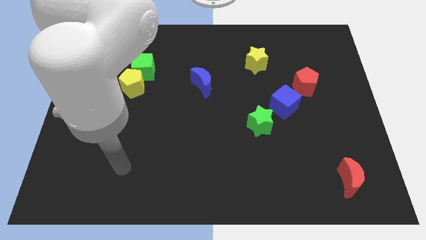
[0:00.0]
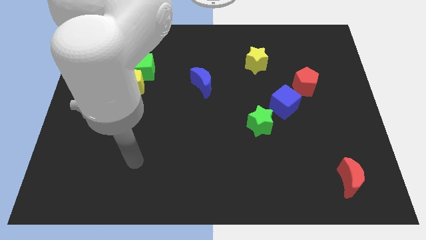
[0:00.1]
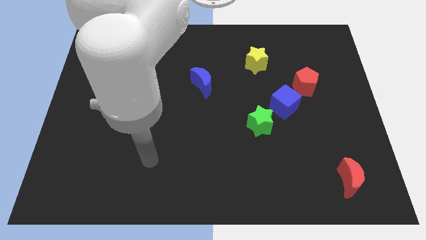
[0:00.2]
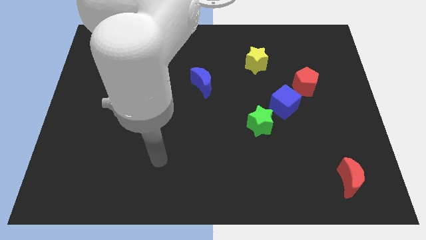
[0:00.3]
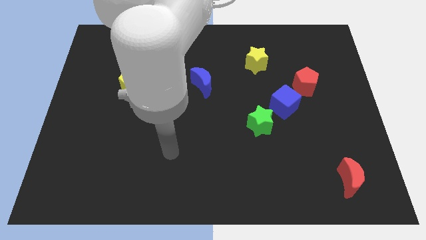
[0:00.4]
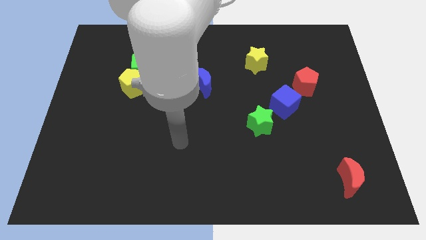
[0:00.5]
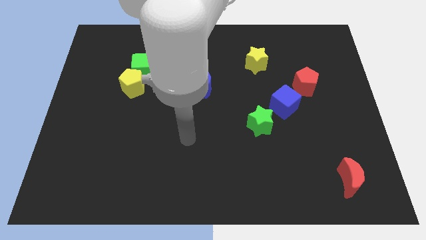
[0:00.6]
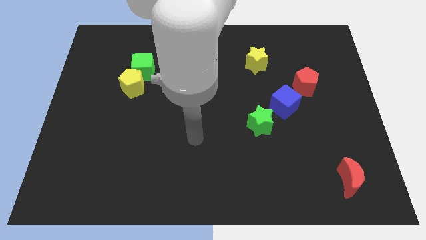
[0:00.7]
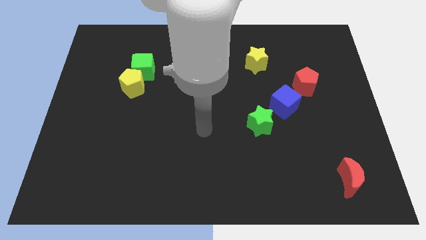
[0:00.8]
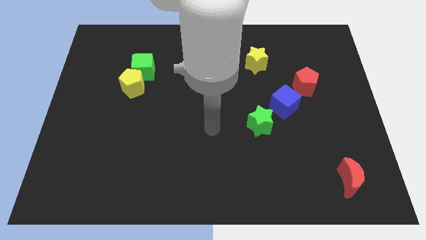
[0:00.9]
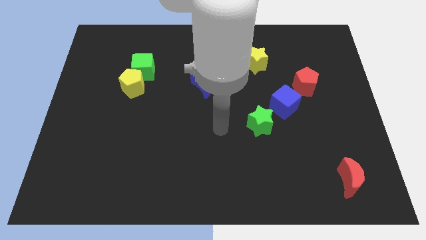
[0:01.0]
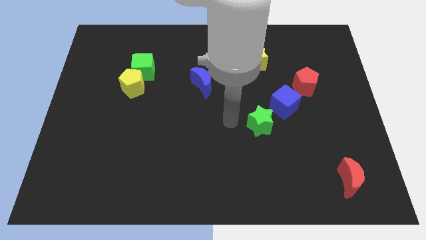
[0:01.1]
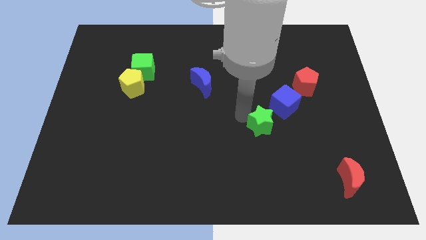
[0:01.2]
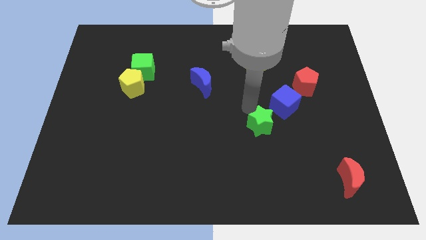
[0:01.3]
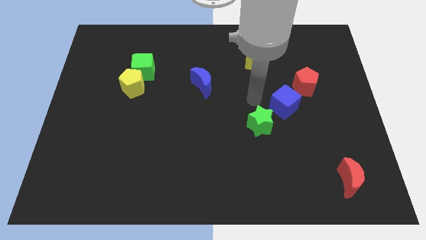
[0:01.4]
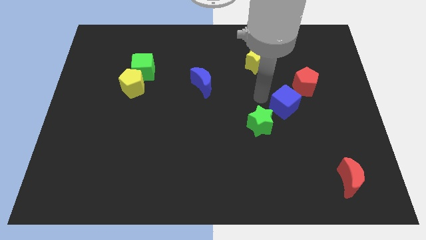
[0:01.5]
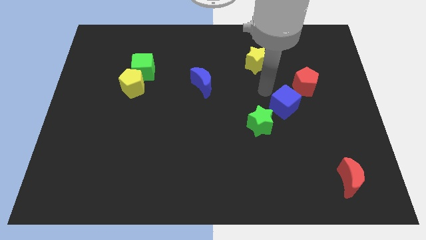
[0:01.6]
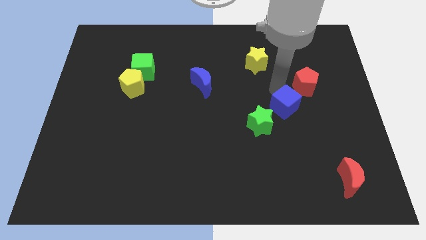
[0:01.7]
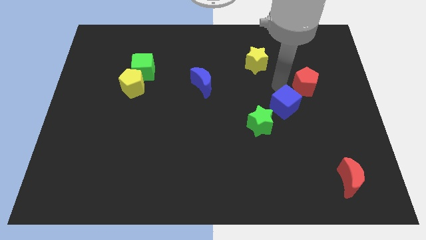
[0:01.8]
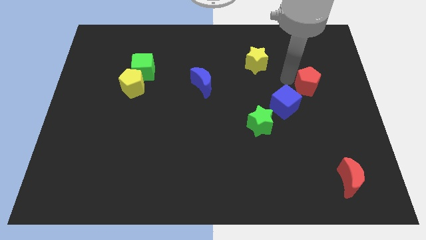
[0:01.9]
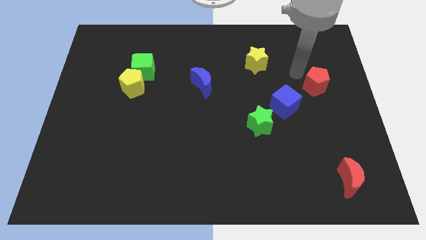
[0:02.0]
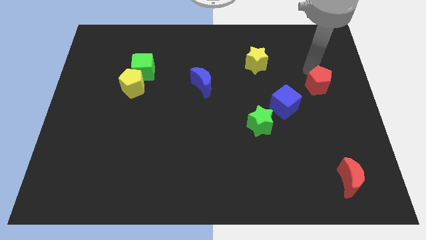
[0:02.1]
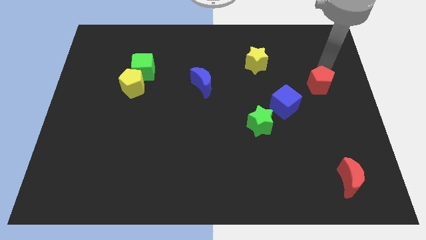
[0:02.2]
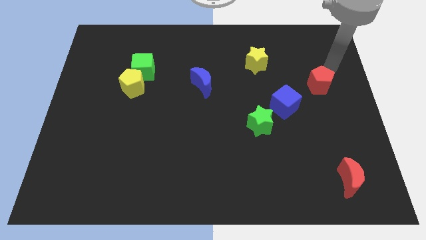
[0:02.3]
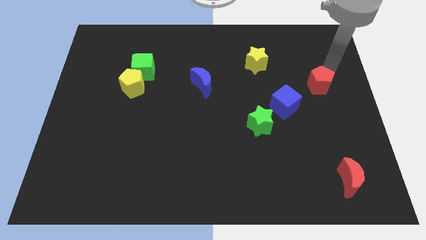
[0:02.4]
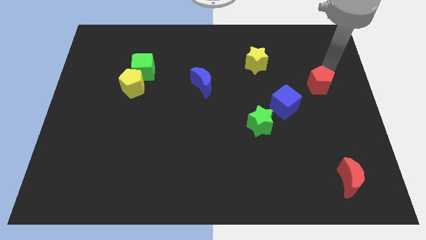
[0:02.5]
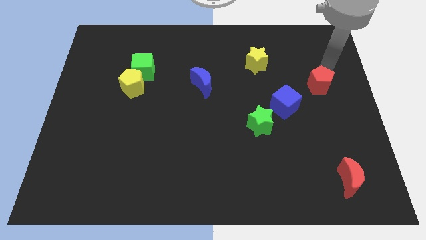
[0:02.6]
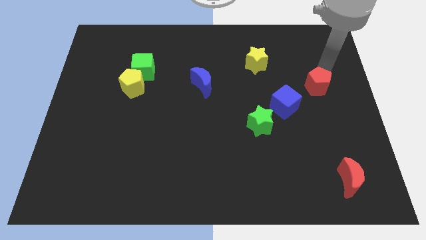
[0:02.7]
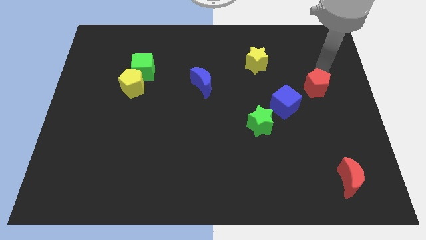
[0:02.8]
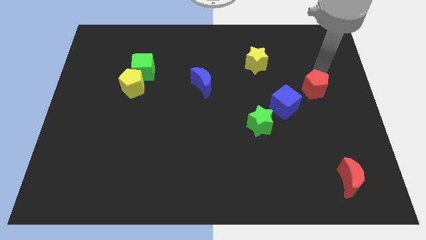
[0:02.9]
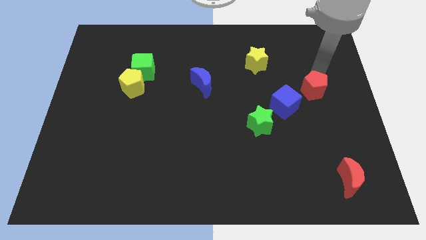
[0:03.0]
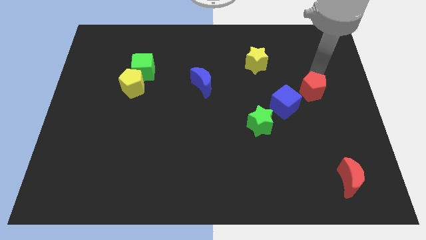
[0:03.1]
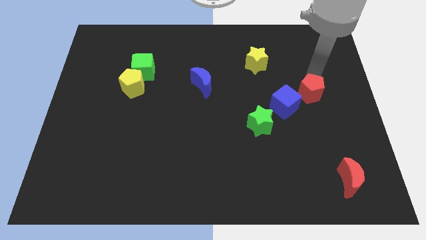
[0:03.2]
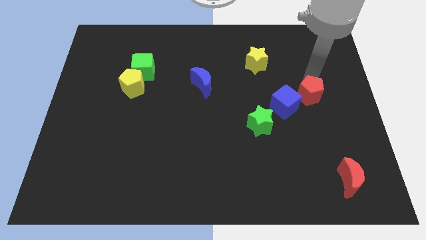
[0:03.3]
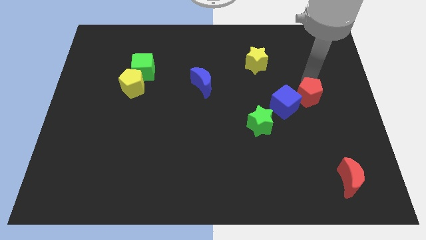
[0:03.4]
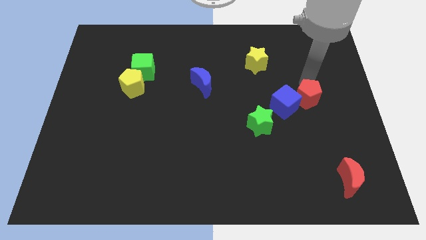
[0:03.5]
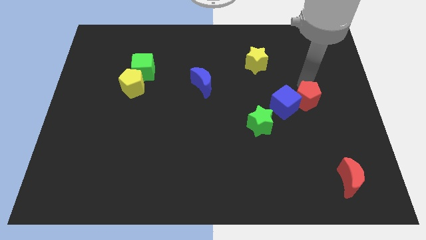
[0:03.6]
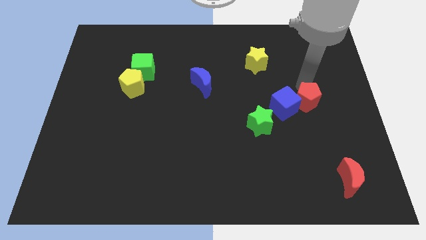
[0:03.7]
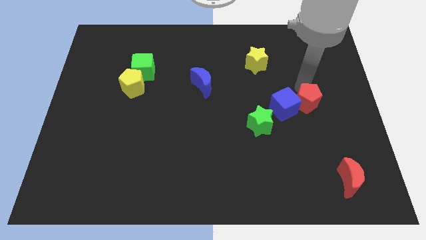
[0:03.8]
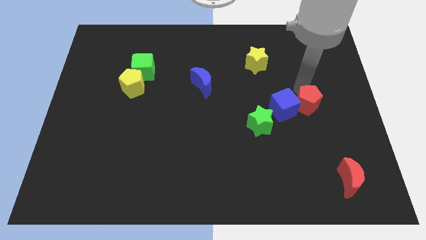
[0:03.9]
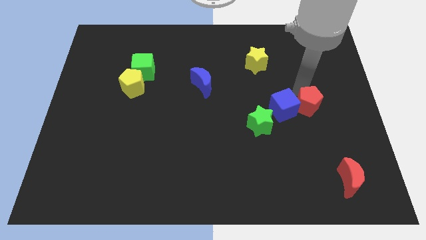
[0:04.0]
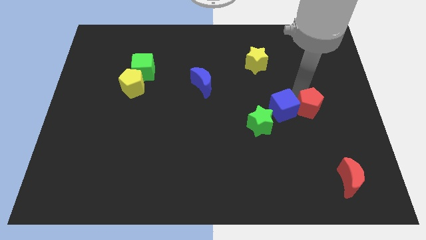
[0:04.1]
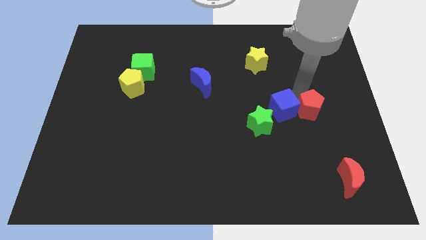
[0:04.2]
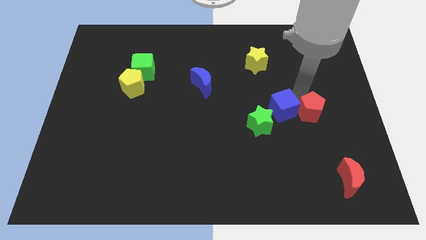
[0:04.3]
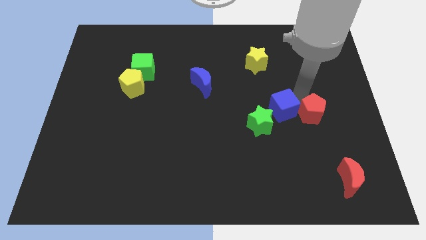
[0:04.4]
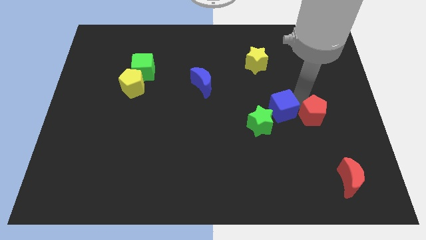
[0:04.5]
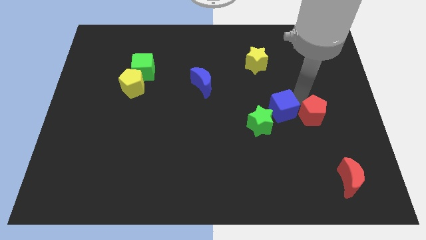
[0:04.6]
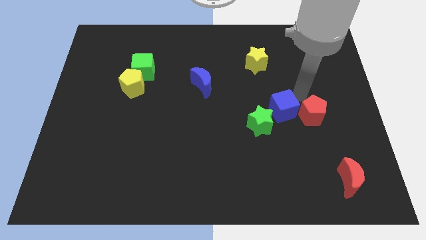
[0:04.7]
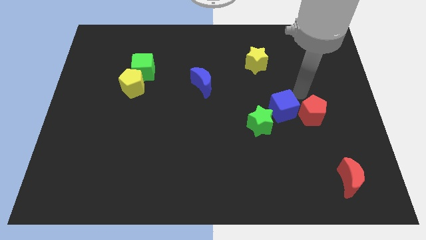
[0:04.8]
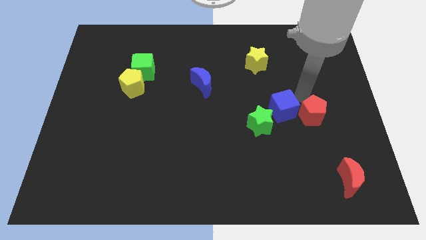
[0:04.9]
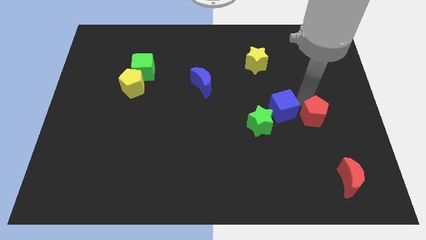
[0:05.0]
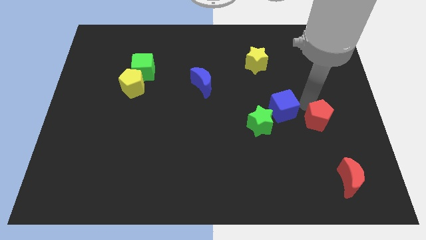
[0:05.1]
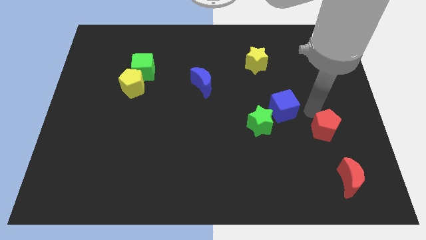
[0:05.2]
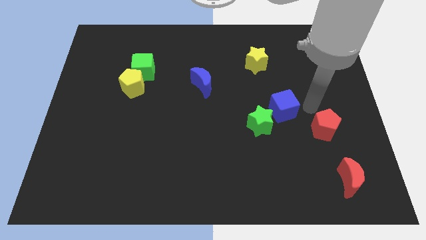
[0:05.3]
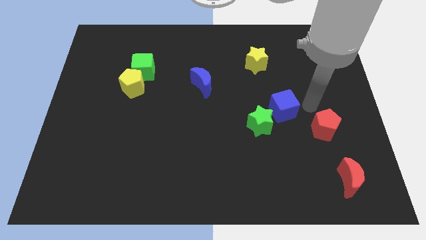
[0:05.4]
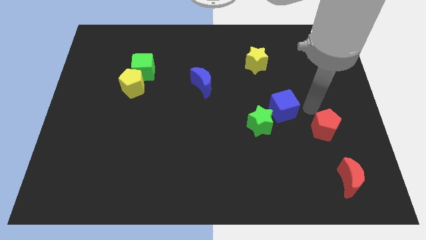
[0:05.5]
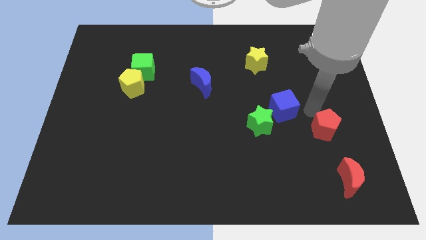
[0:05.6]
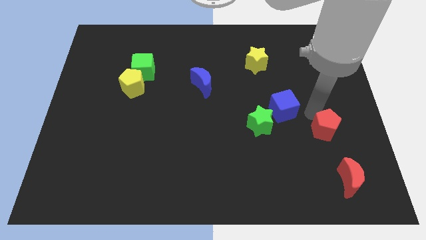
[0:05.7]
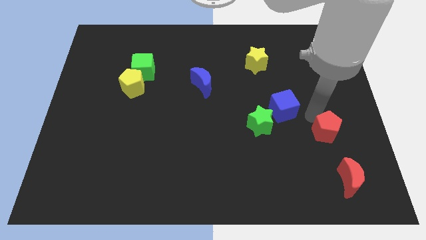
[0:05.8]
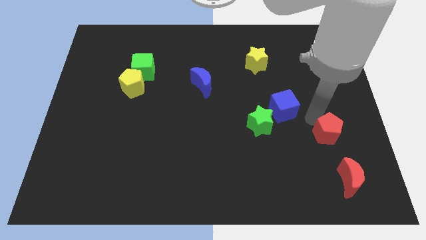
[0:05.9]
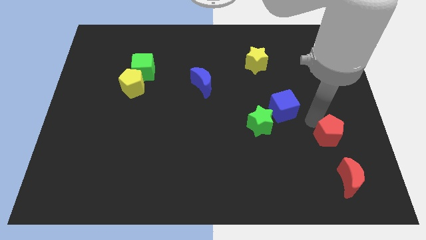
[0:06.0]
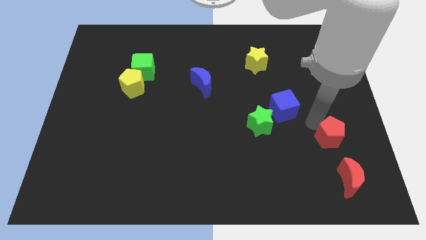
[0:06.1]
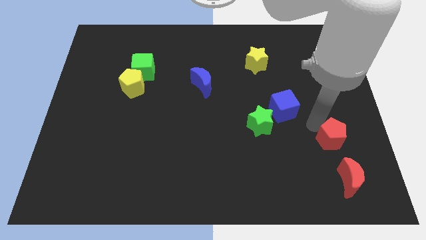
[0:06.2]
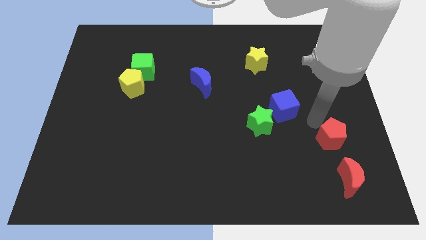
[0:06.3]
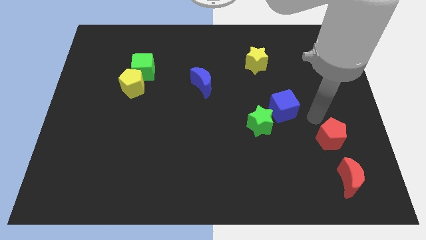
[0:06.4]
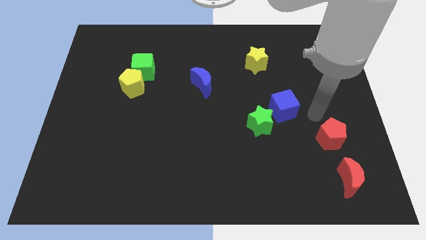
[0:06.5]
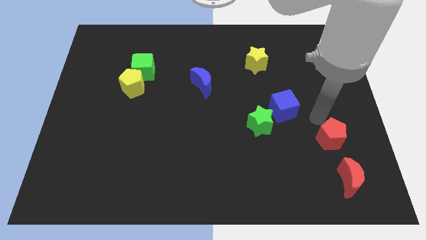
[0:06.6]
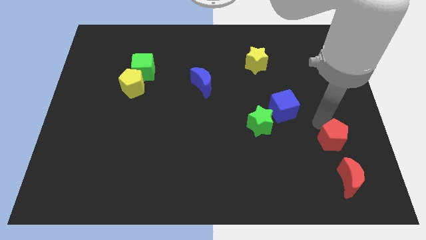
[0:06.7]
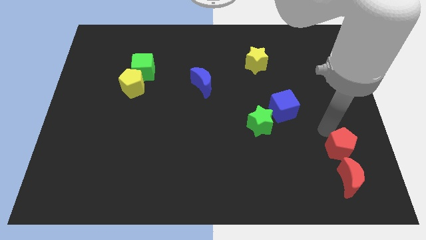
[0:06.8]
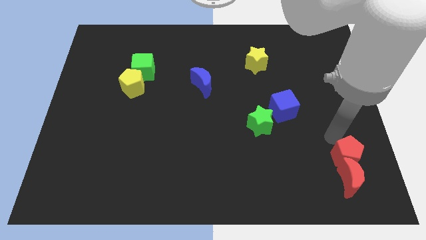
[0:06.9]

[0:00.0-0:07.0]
slide the red pentagon next to the red moon

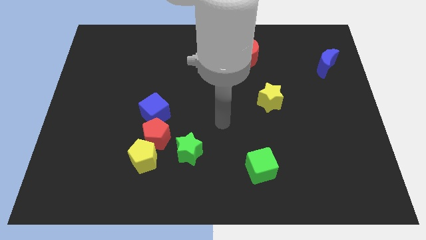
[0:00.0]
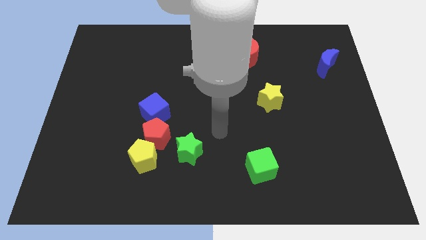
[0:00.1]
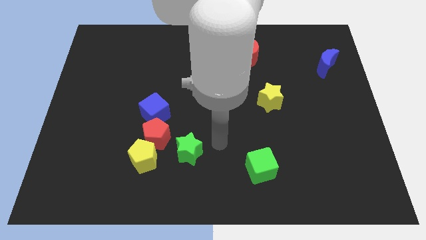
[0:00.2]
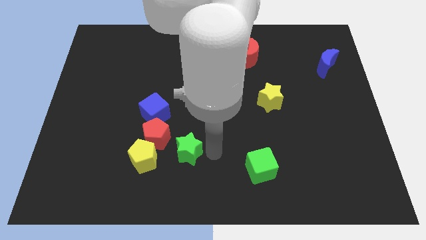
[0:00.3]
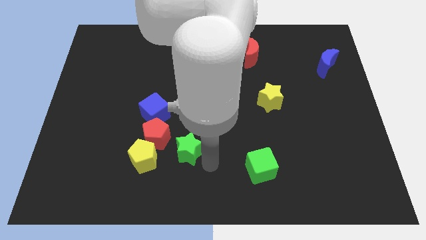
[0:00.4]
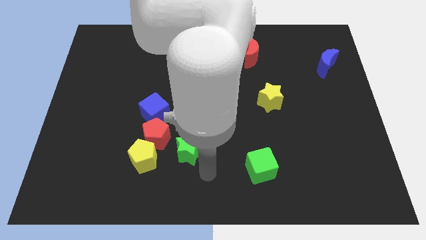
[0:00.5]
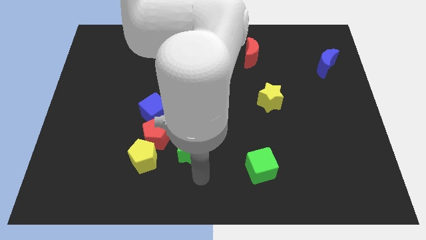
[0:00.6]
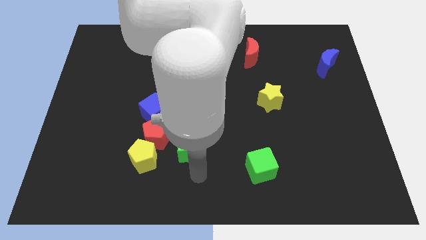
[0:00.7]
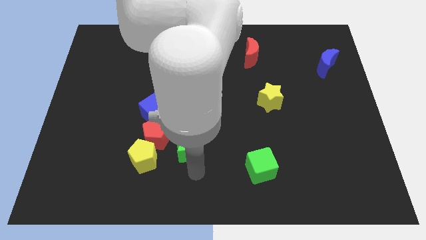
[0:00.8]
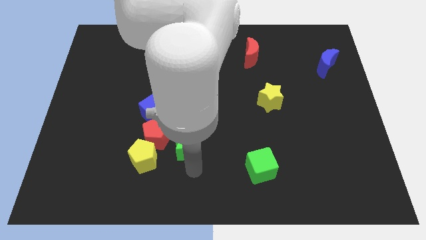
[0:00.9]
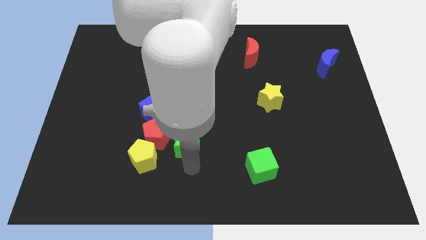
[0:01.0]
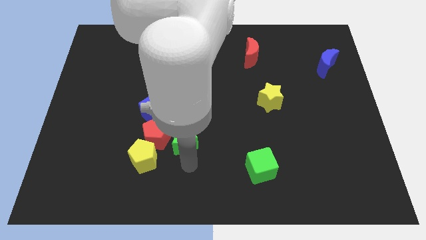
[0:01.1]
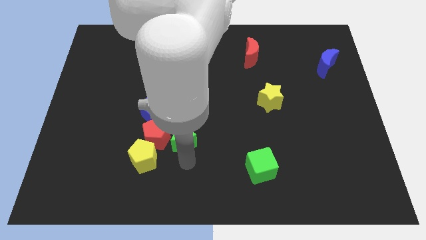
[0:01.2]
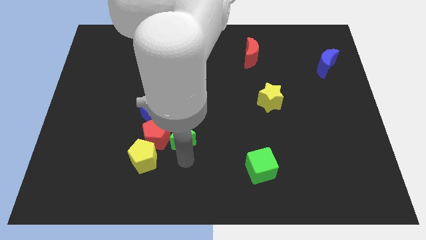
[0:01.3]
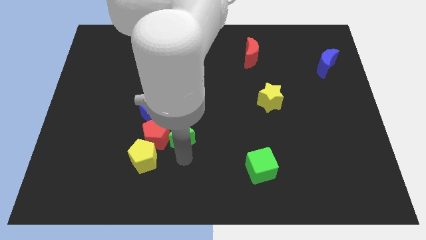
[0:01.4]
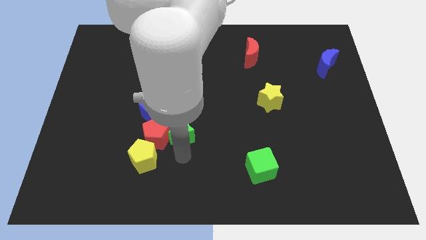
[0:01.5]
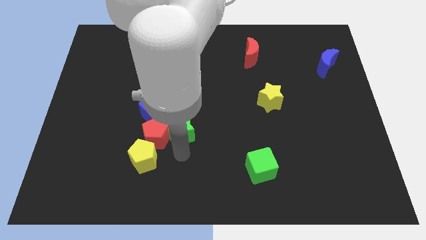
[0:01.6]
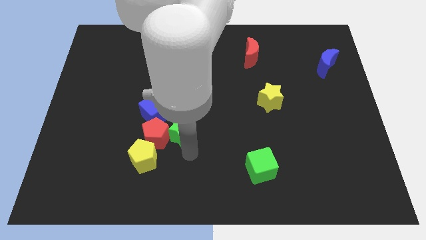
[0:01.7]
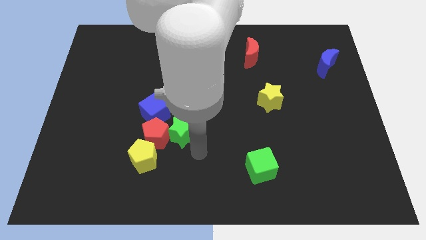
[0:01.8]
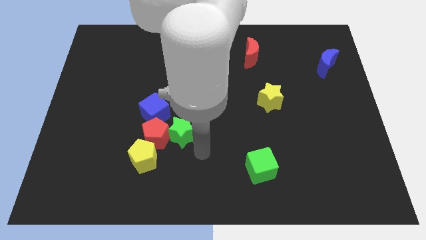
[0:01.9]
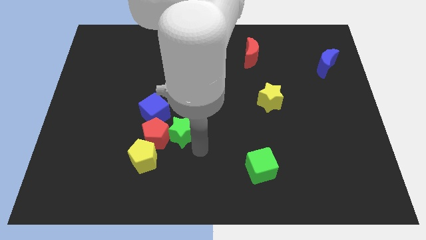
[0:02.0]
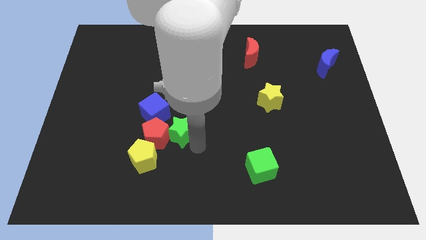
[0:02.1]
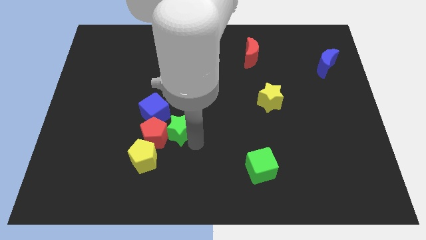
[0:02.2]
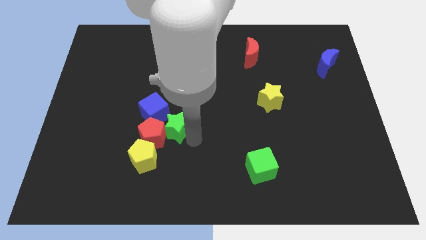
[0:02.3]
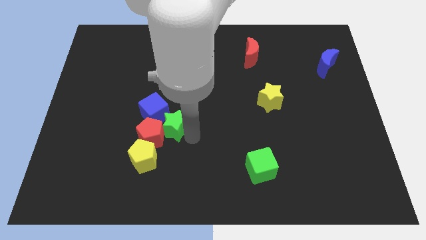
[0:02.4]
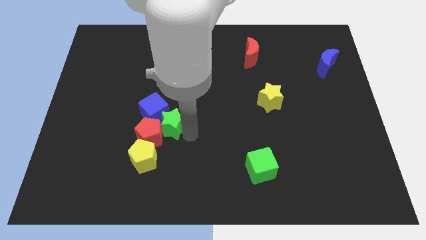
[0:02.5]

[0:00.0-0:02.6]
put the green star close to the blue cube
